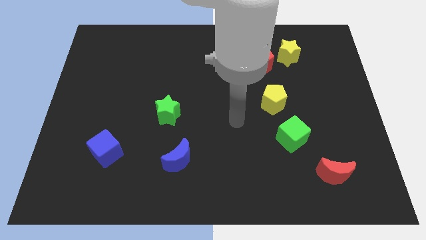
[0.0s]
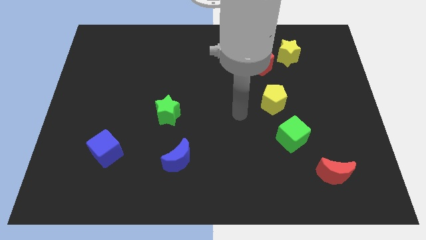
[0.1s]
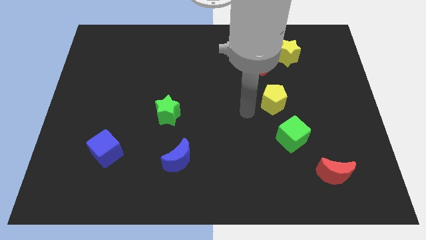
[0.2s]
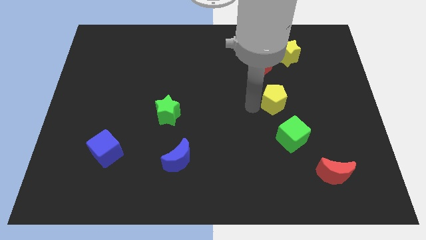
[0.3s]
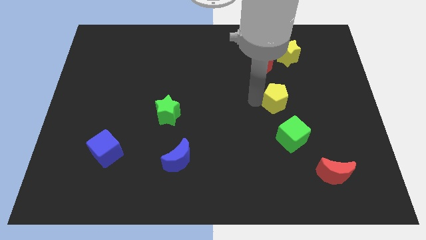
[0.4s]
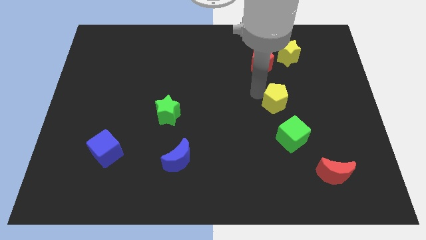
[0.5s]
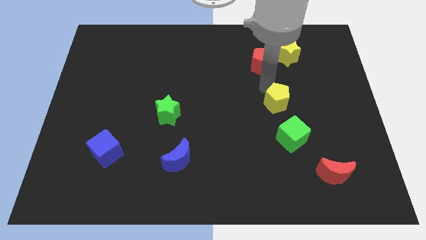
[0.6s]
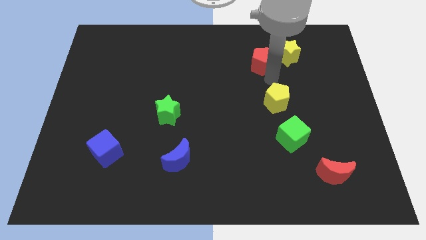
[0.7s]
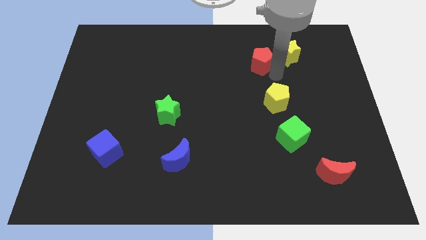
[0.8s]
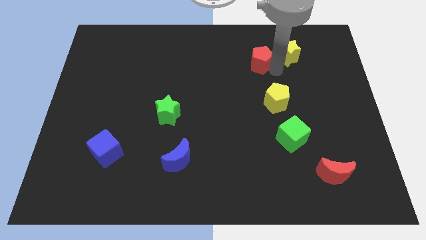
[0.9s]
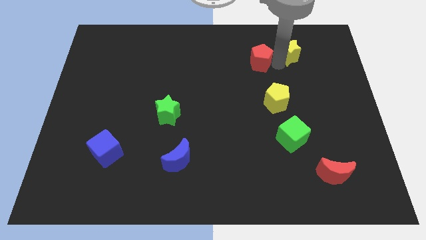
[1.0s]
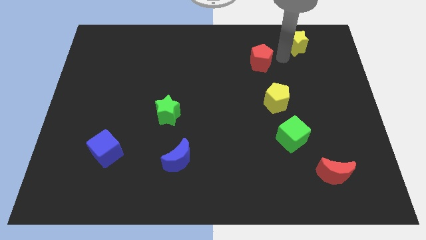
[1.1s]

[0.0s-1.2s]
move the red pentagon away from the yellow star

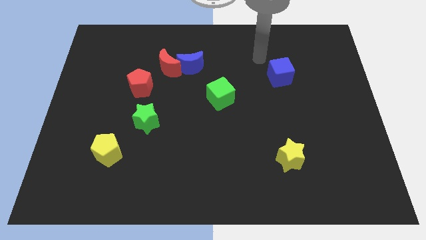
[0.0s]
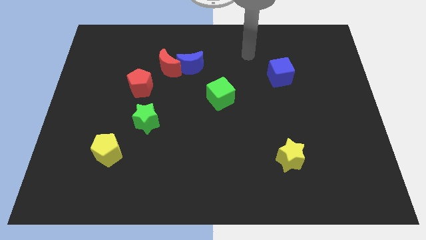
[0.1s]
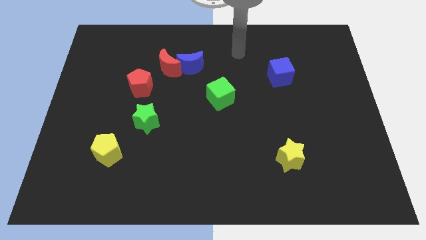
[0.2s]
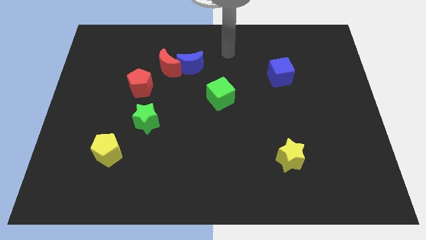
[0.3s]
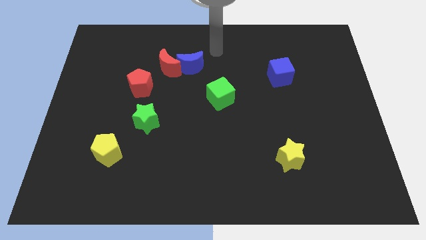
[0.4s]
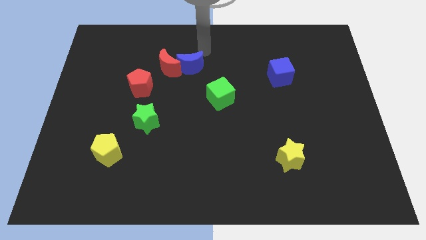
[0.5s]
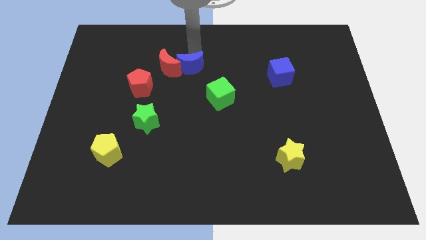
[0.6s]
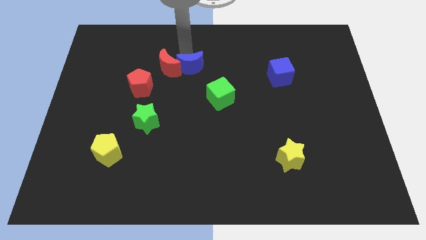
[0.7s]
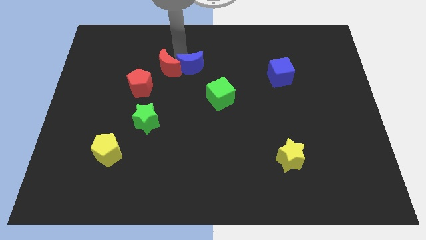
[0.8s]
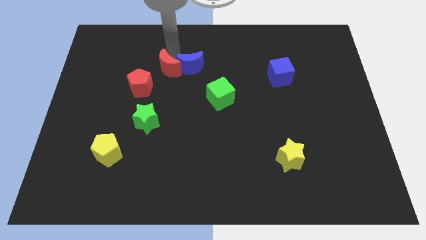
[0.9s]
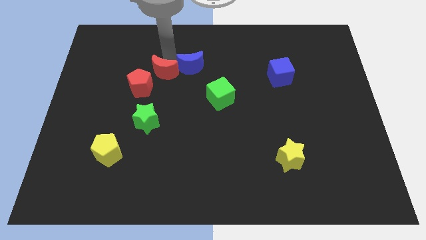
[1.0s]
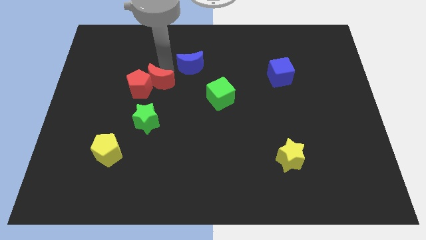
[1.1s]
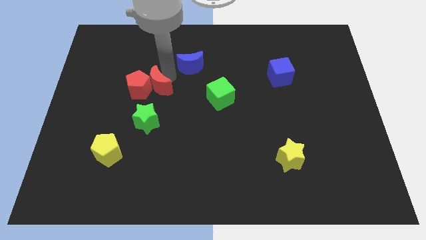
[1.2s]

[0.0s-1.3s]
separate the blue moon from the red moon

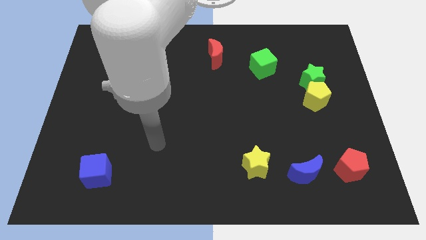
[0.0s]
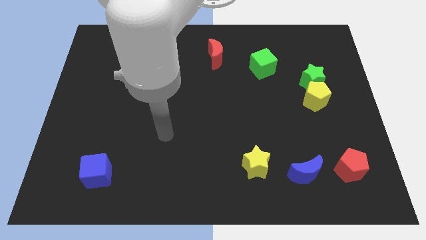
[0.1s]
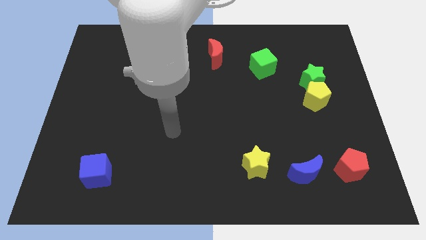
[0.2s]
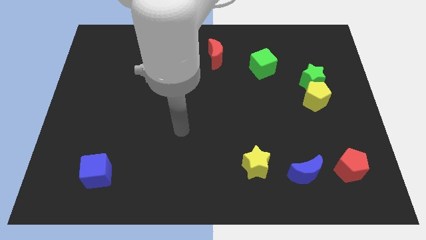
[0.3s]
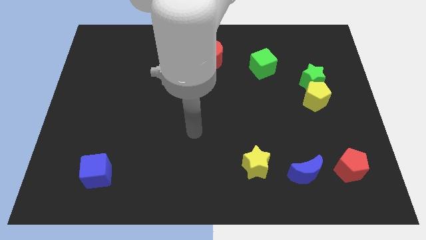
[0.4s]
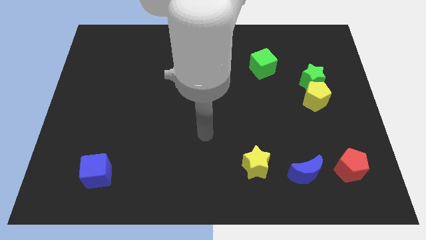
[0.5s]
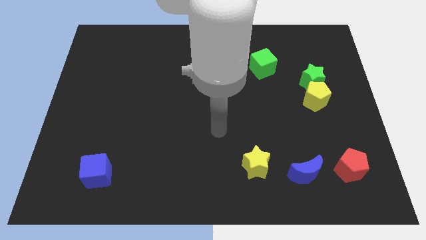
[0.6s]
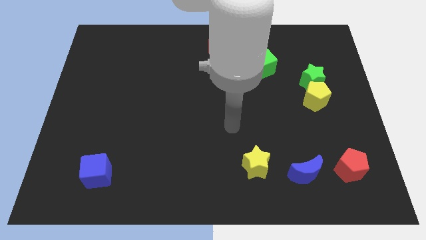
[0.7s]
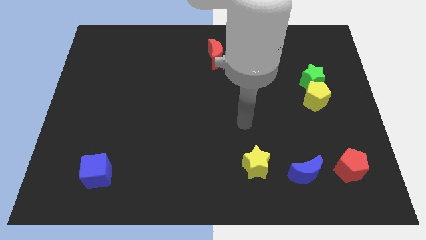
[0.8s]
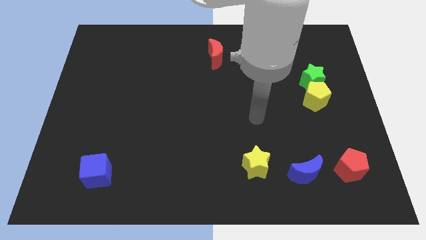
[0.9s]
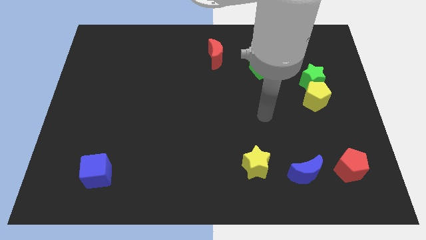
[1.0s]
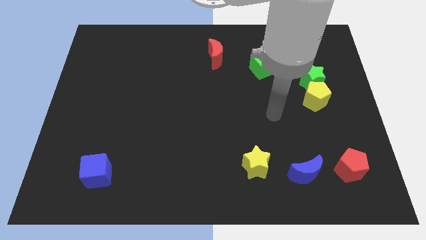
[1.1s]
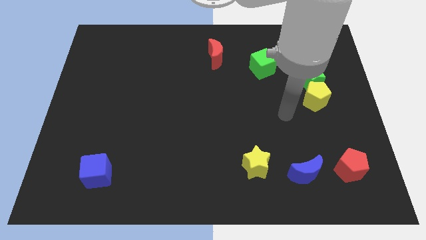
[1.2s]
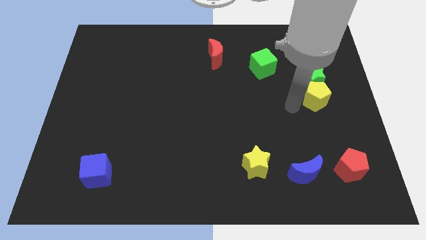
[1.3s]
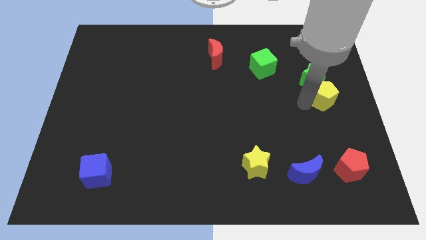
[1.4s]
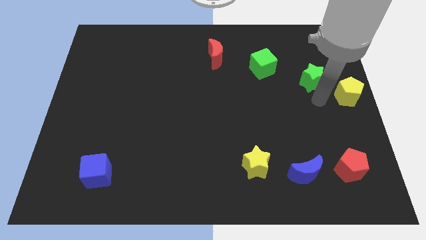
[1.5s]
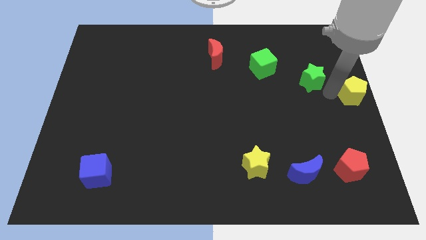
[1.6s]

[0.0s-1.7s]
move the green star away from the yellow pentagon

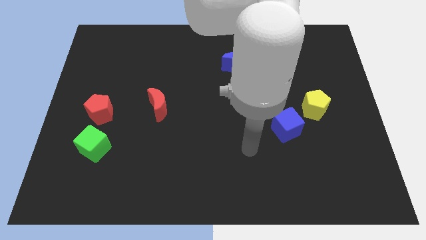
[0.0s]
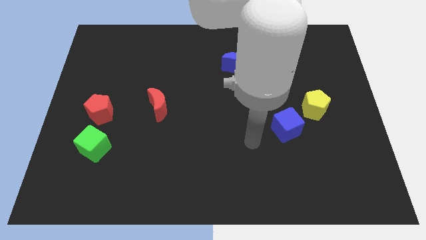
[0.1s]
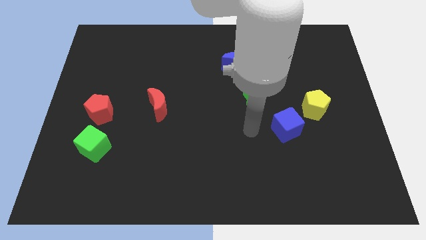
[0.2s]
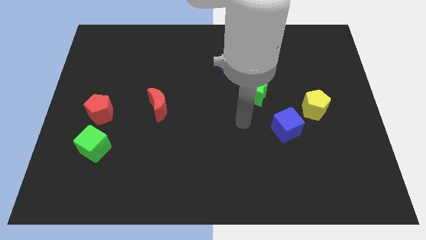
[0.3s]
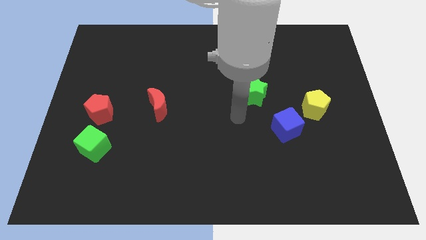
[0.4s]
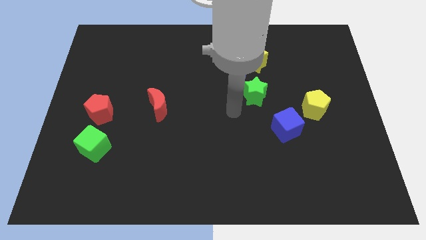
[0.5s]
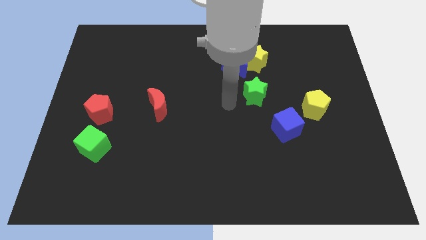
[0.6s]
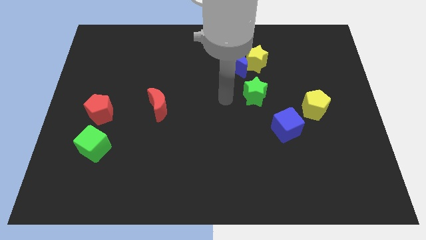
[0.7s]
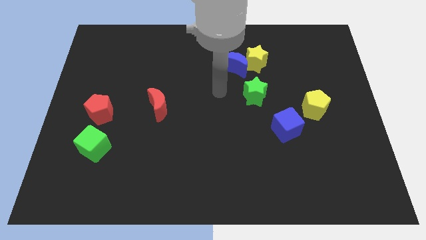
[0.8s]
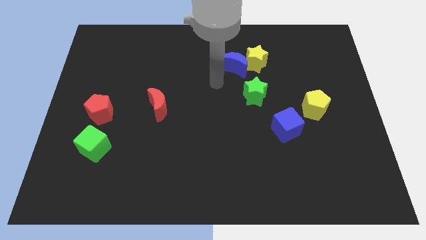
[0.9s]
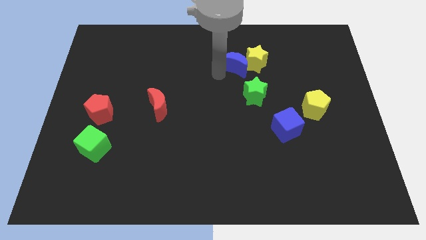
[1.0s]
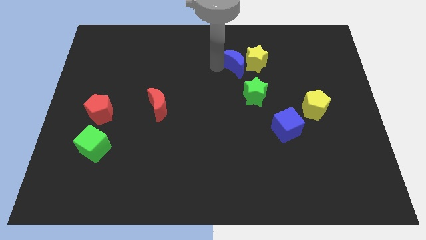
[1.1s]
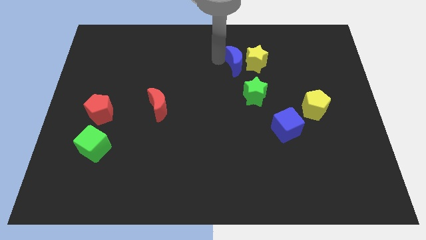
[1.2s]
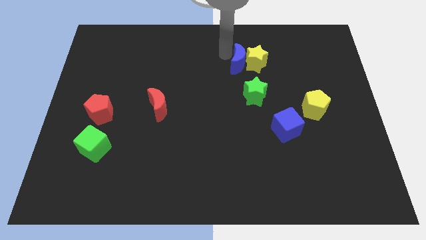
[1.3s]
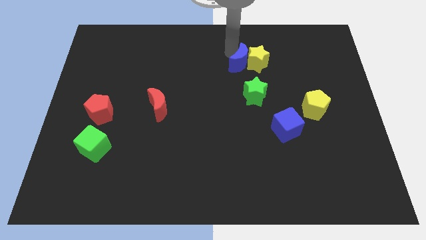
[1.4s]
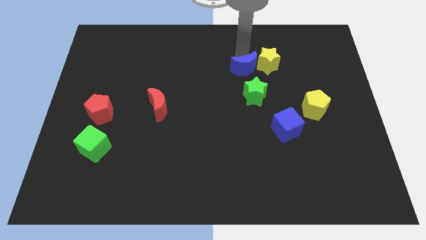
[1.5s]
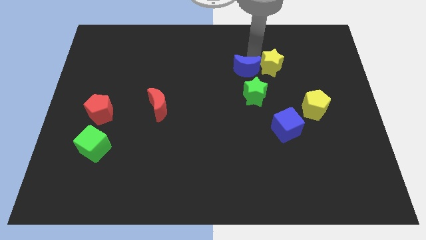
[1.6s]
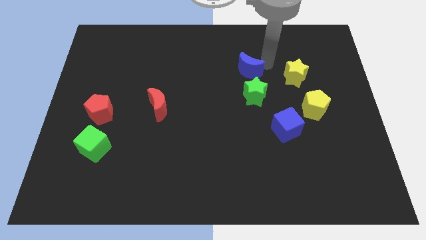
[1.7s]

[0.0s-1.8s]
separate the blue moon from the yellow star

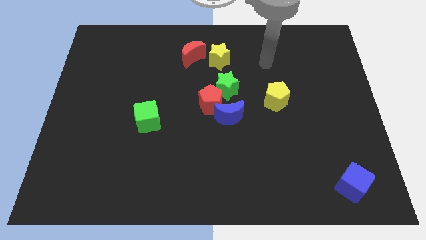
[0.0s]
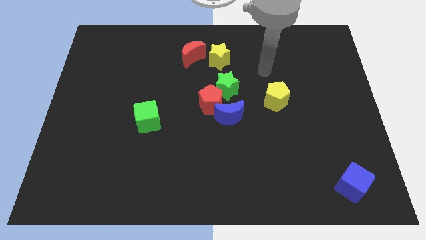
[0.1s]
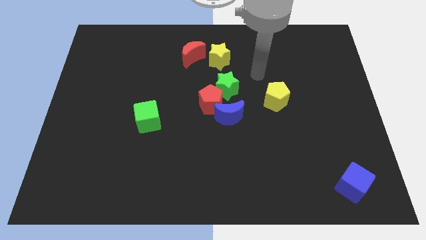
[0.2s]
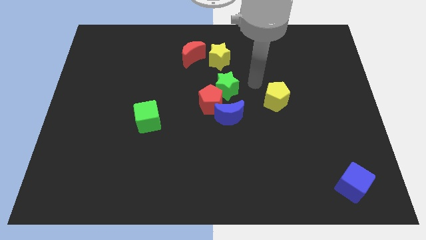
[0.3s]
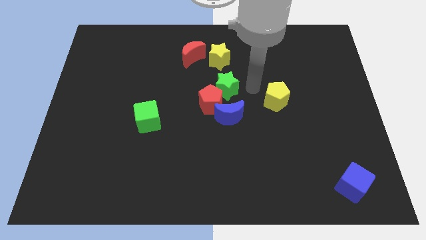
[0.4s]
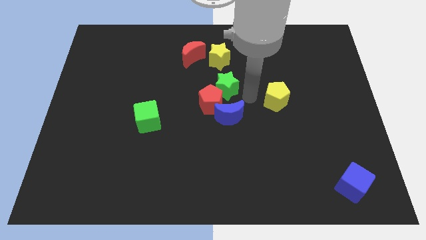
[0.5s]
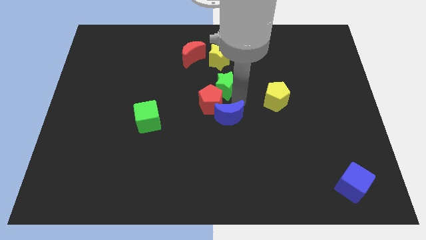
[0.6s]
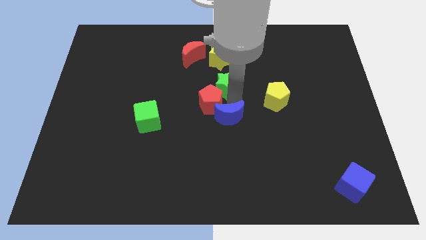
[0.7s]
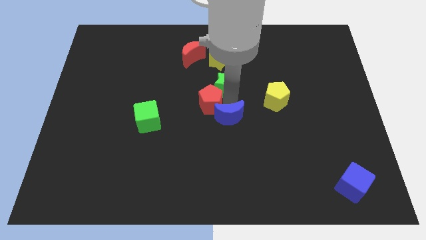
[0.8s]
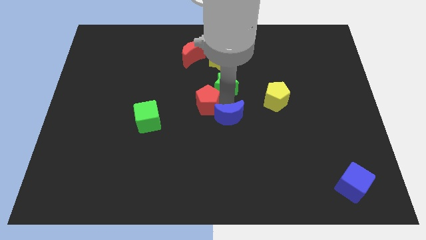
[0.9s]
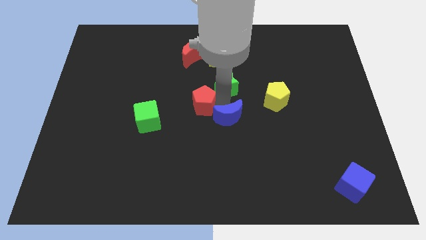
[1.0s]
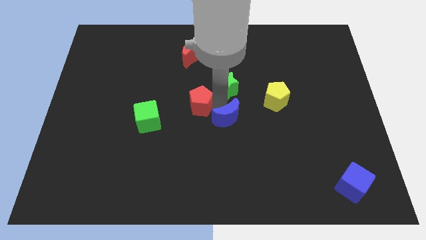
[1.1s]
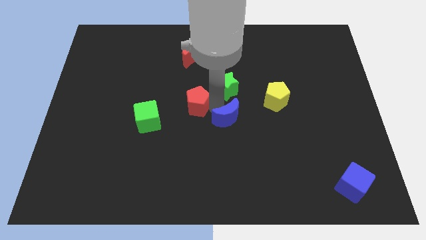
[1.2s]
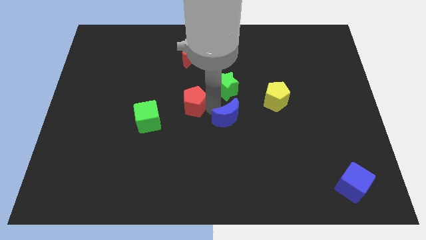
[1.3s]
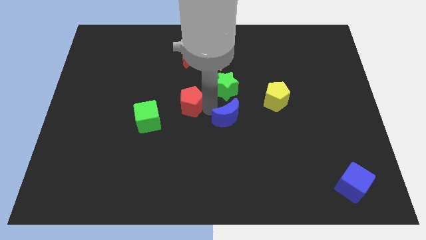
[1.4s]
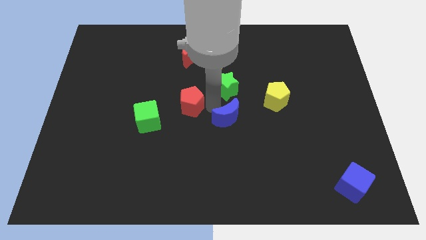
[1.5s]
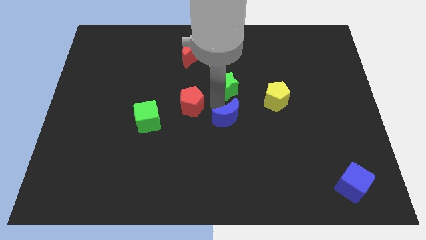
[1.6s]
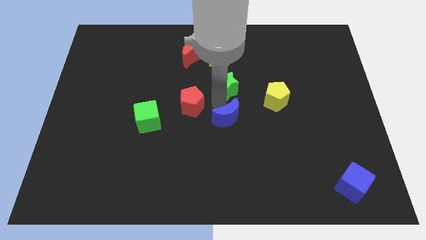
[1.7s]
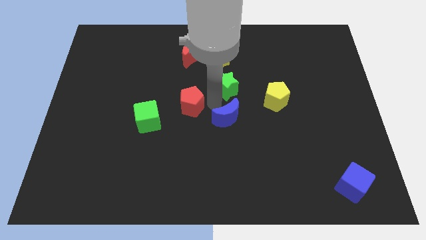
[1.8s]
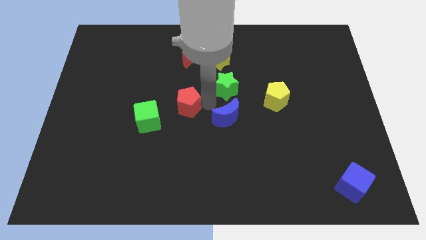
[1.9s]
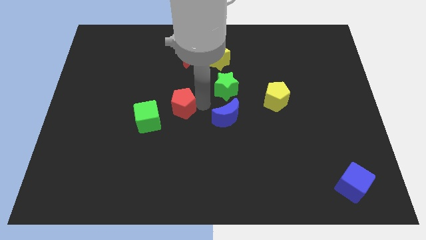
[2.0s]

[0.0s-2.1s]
separate the red pentagon from the green star and blue moon

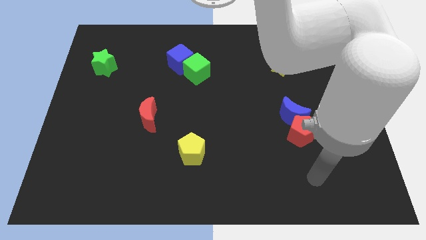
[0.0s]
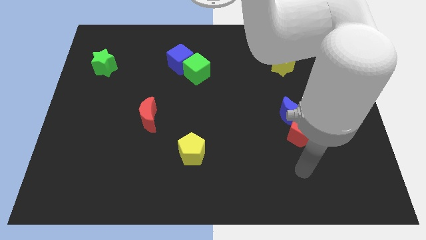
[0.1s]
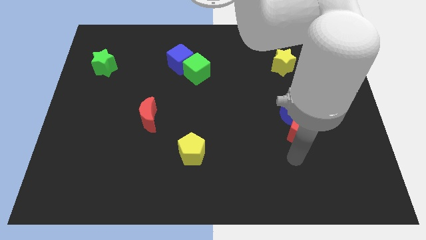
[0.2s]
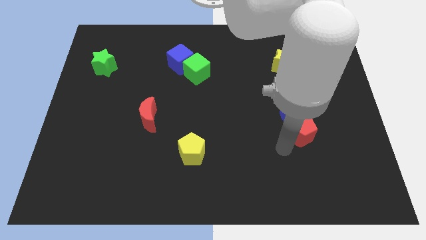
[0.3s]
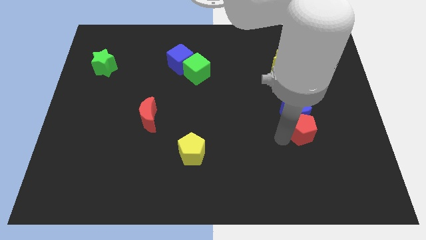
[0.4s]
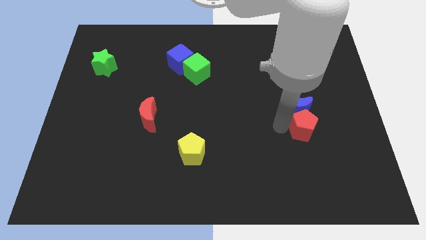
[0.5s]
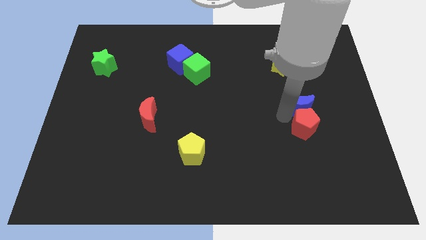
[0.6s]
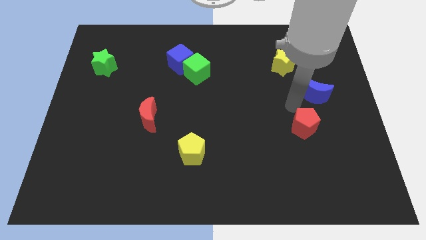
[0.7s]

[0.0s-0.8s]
separate the red pentagon from the blue moon

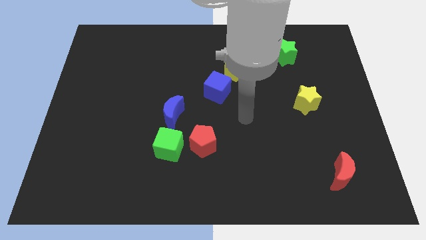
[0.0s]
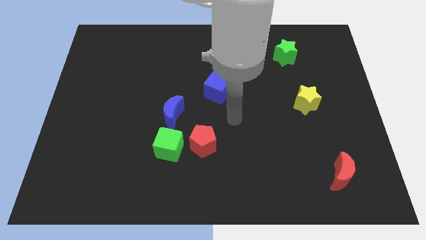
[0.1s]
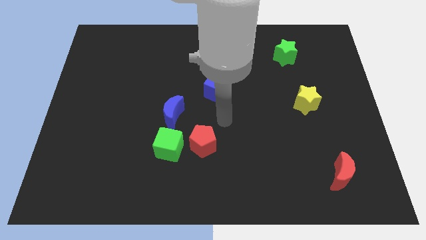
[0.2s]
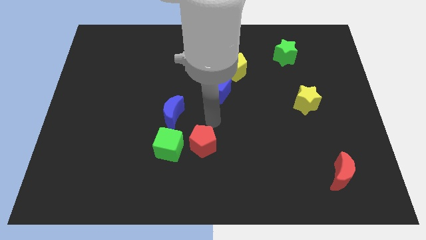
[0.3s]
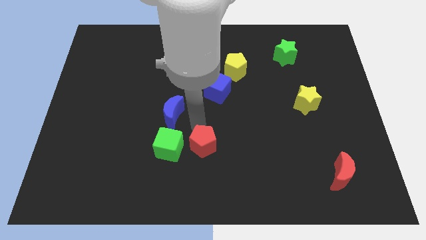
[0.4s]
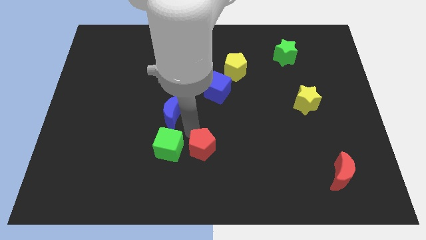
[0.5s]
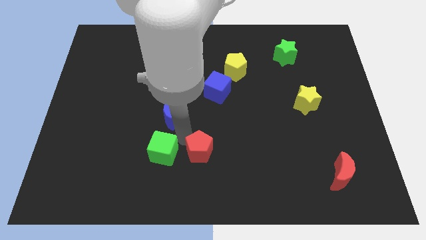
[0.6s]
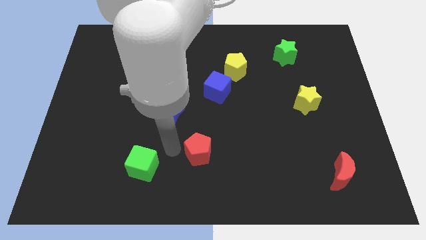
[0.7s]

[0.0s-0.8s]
separate the red pentagon from the green cube
